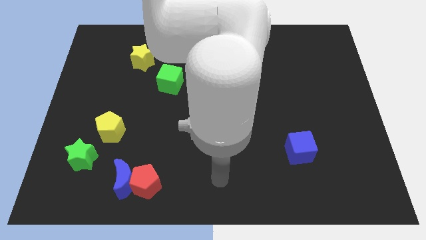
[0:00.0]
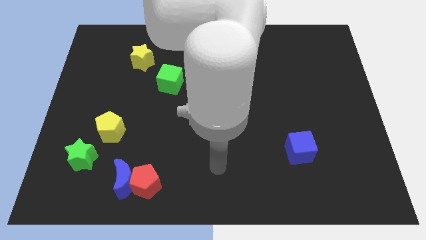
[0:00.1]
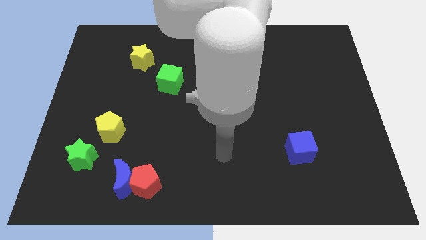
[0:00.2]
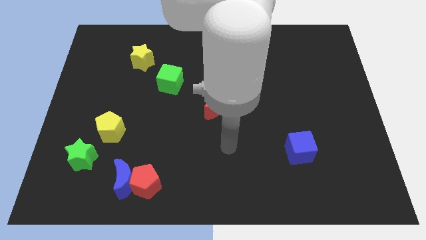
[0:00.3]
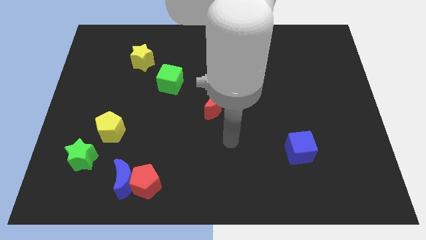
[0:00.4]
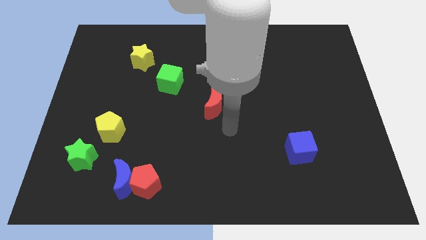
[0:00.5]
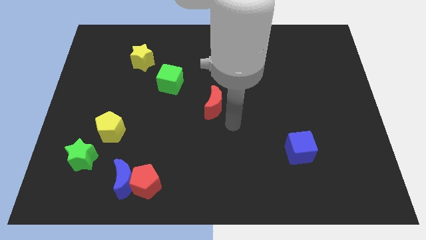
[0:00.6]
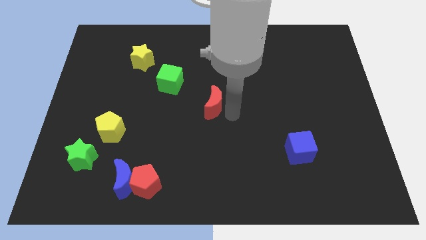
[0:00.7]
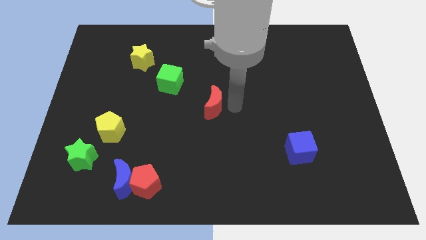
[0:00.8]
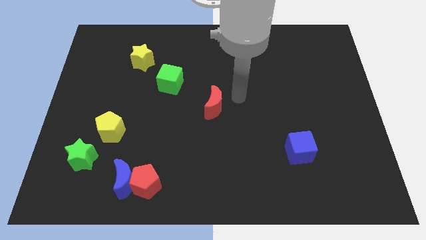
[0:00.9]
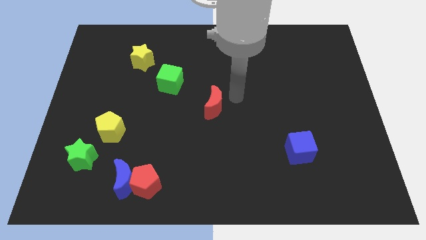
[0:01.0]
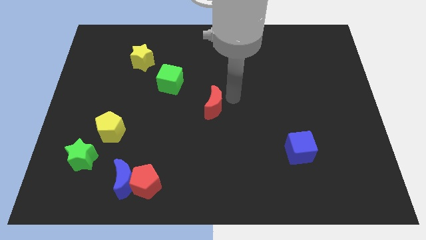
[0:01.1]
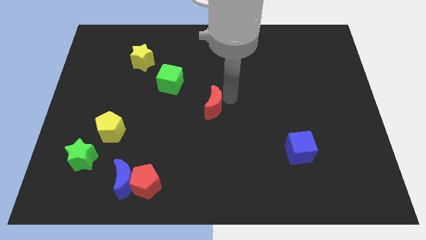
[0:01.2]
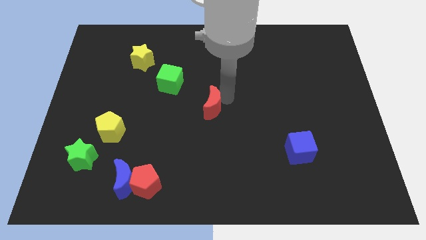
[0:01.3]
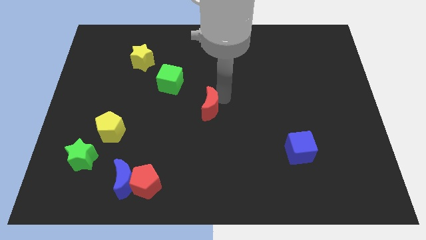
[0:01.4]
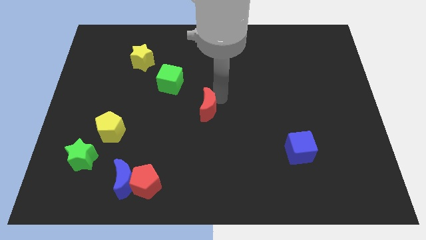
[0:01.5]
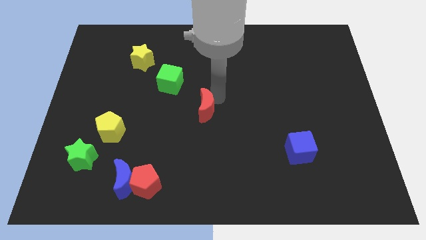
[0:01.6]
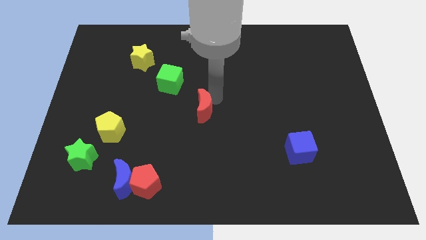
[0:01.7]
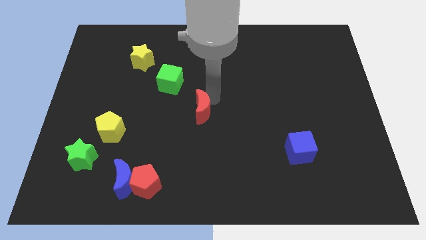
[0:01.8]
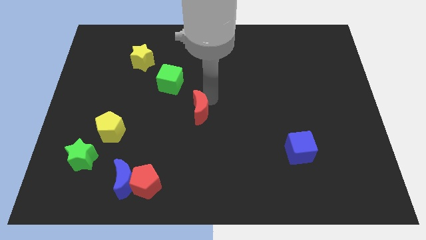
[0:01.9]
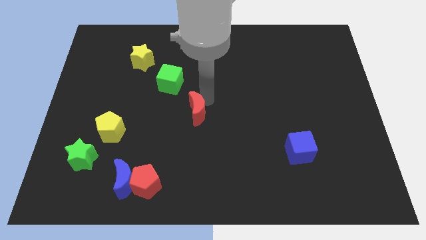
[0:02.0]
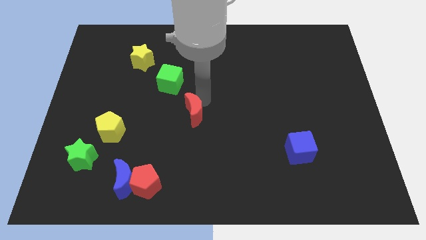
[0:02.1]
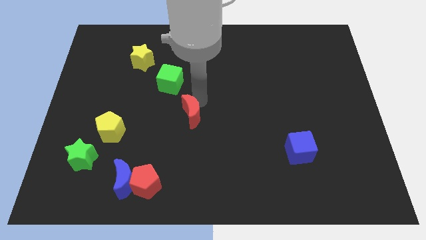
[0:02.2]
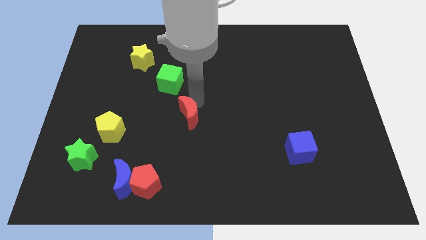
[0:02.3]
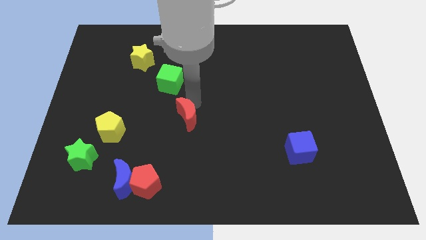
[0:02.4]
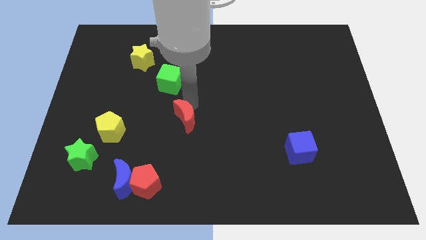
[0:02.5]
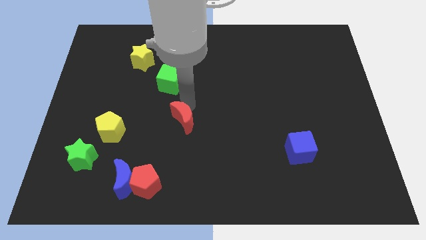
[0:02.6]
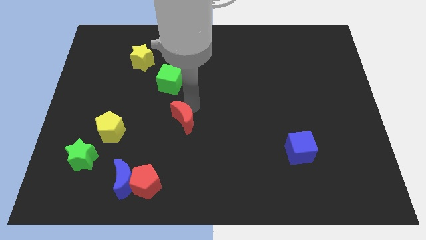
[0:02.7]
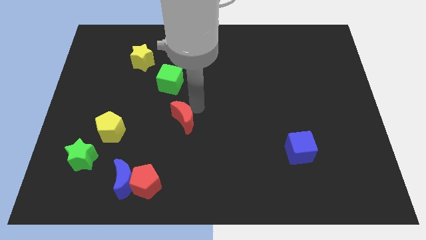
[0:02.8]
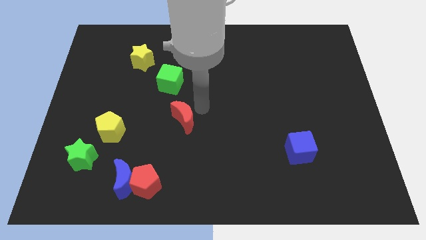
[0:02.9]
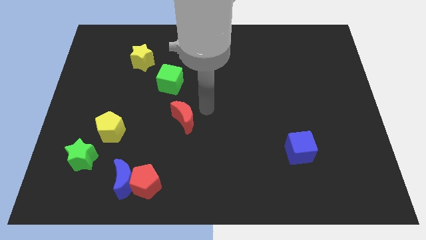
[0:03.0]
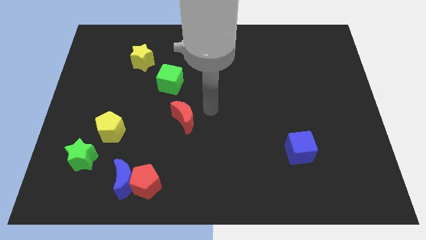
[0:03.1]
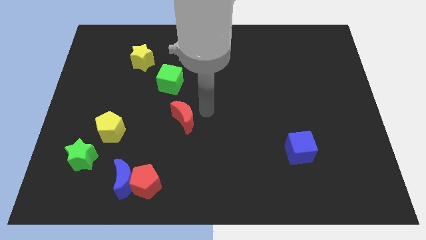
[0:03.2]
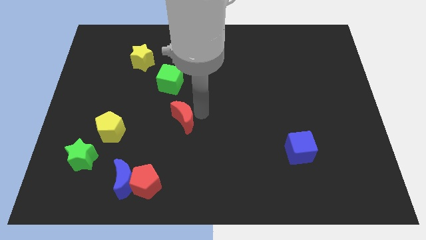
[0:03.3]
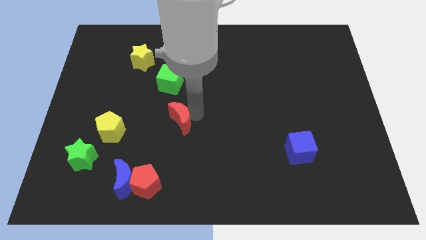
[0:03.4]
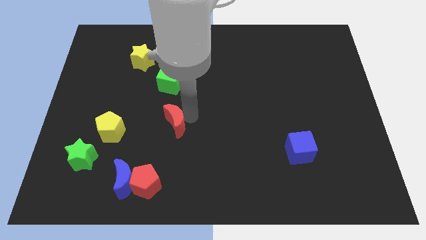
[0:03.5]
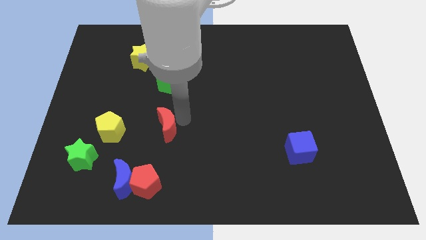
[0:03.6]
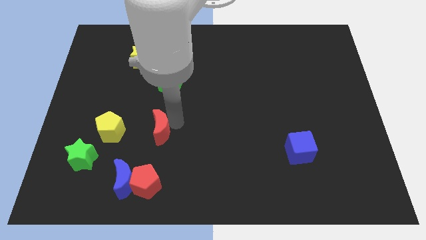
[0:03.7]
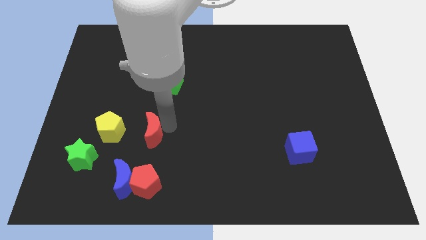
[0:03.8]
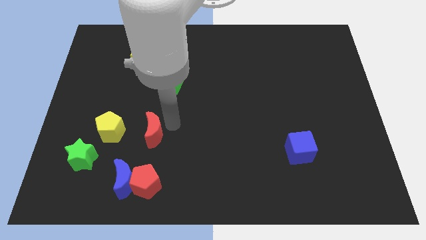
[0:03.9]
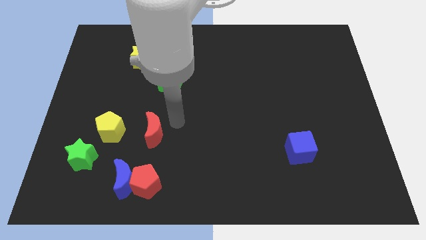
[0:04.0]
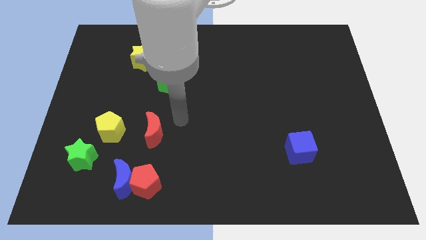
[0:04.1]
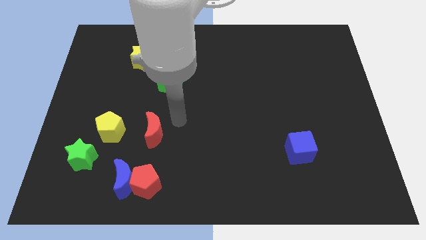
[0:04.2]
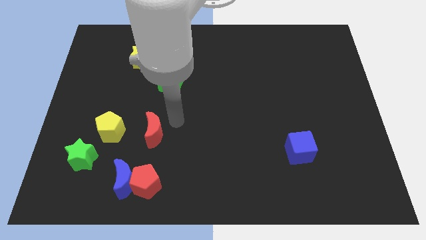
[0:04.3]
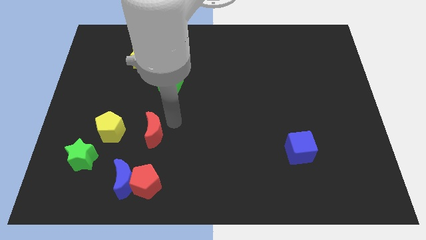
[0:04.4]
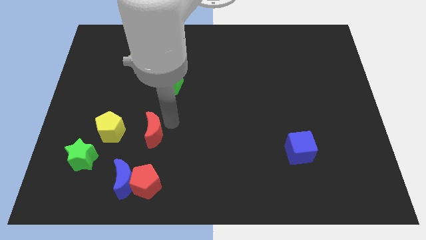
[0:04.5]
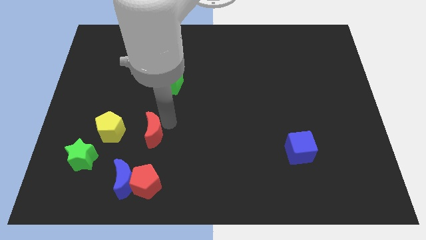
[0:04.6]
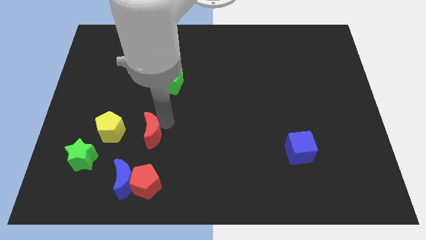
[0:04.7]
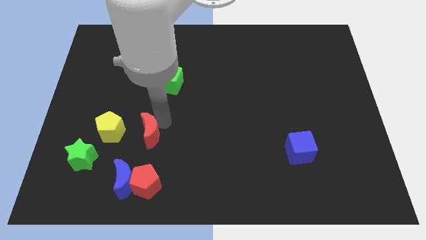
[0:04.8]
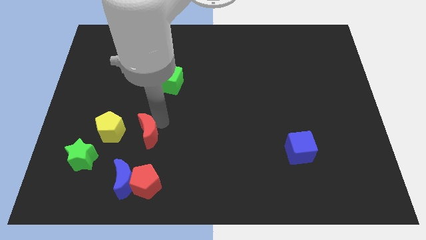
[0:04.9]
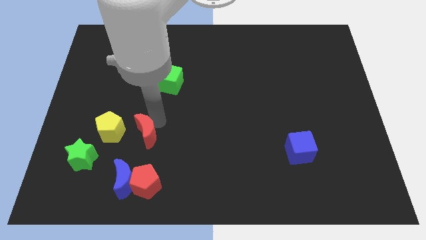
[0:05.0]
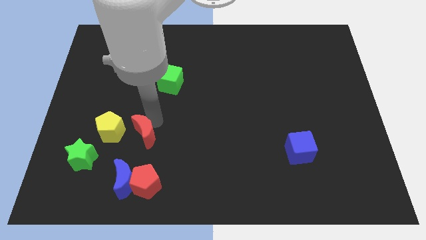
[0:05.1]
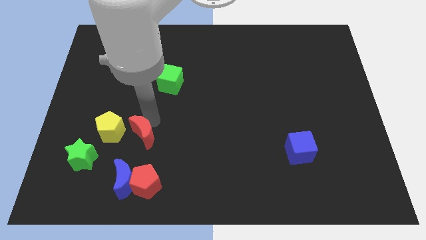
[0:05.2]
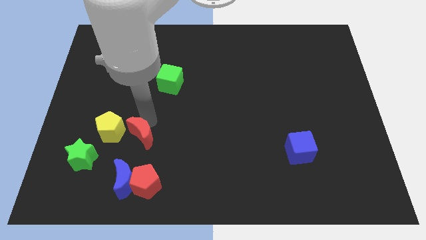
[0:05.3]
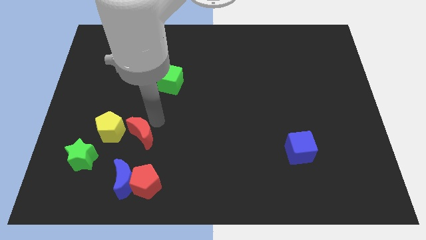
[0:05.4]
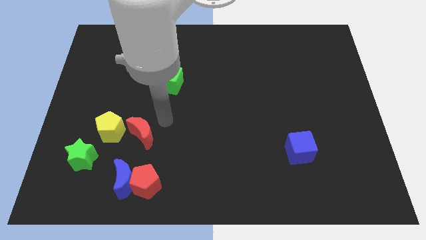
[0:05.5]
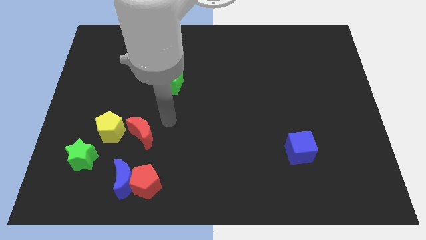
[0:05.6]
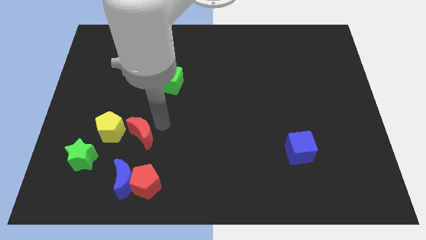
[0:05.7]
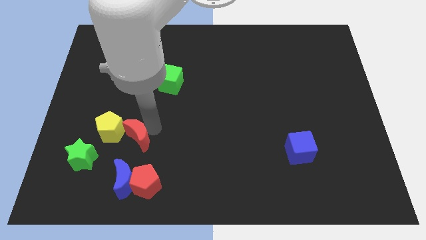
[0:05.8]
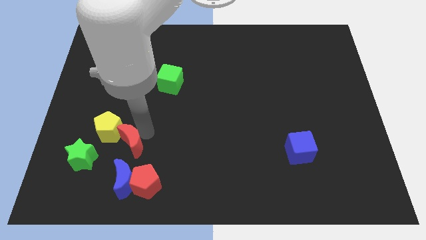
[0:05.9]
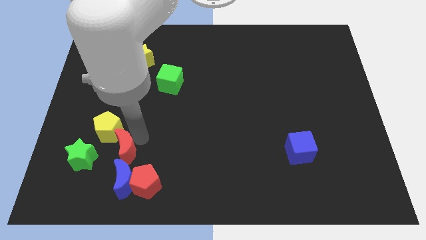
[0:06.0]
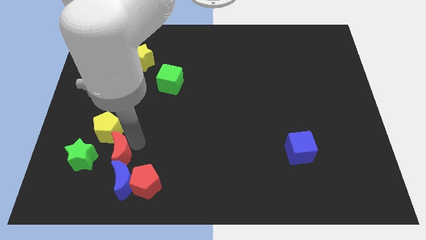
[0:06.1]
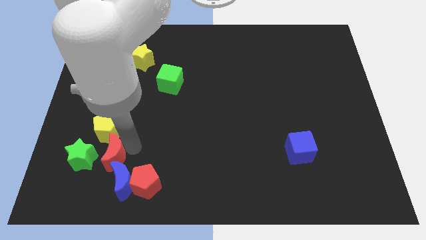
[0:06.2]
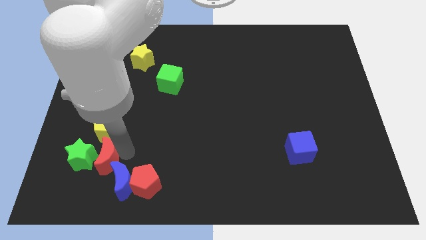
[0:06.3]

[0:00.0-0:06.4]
put the red moon next to the green star

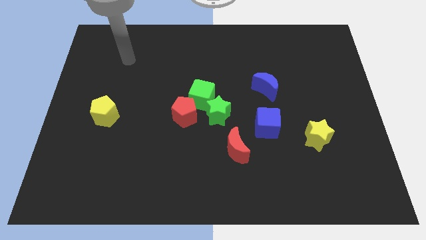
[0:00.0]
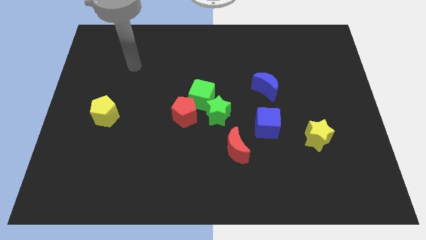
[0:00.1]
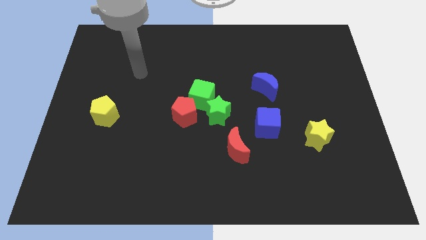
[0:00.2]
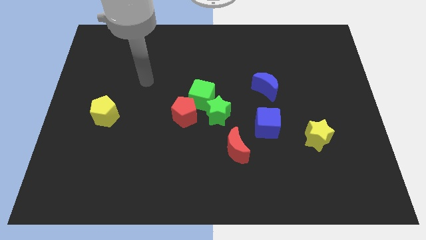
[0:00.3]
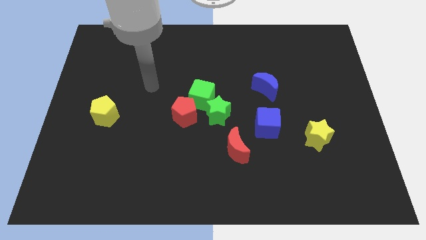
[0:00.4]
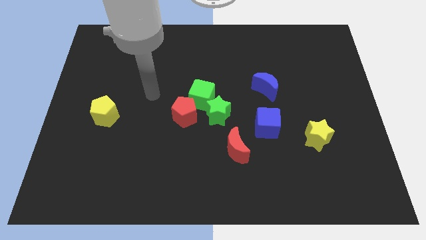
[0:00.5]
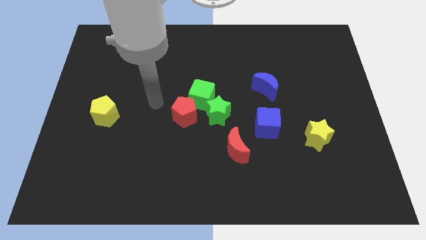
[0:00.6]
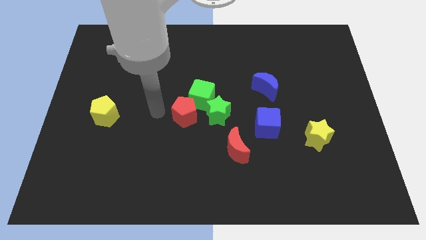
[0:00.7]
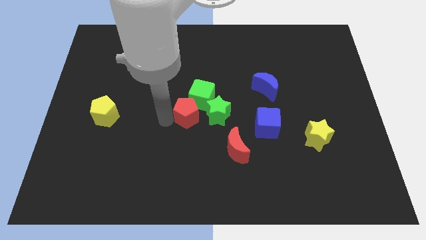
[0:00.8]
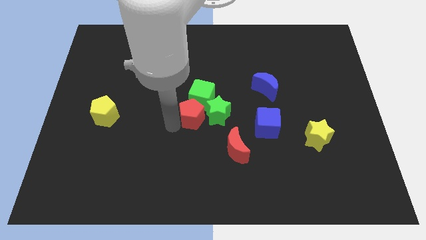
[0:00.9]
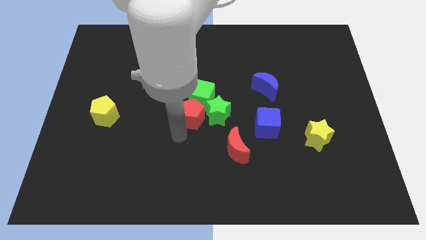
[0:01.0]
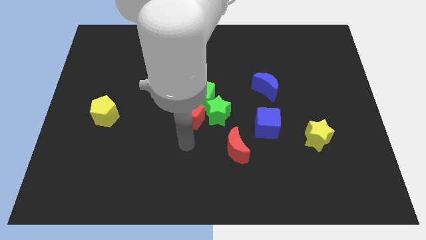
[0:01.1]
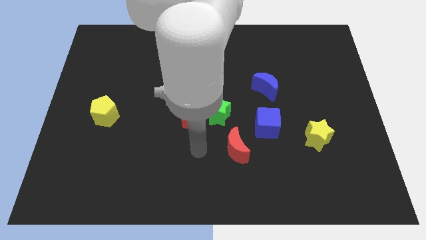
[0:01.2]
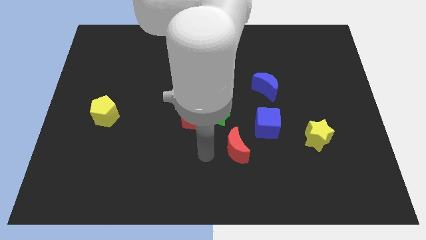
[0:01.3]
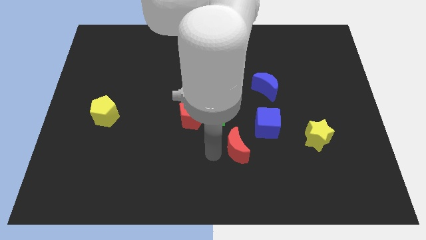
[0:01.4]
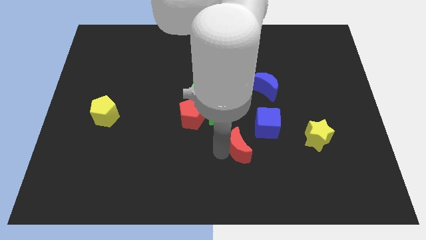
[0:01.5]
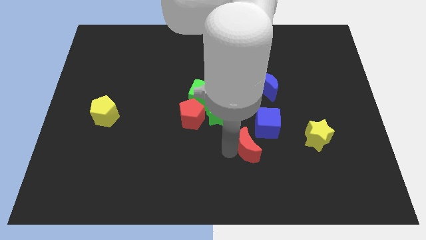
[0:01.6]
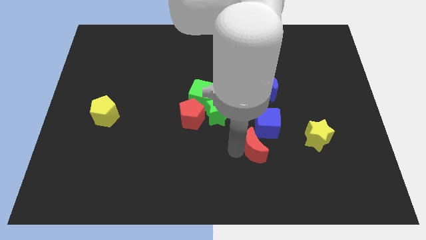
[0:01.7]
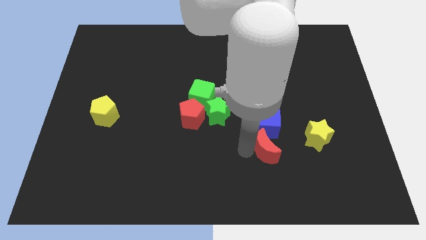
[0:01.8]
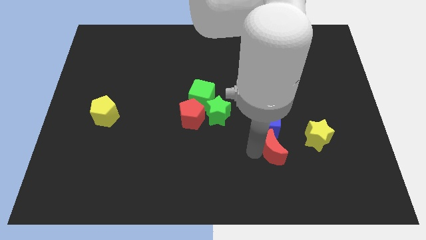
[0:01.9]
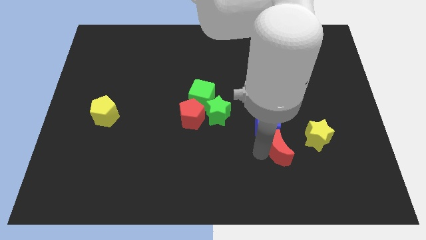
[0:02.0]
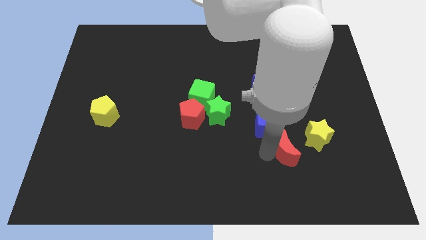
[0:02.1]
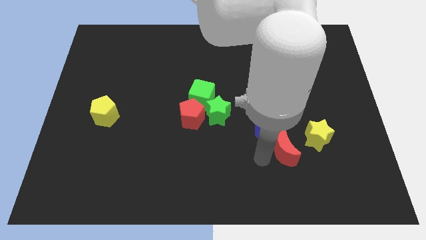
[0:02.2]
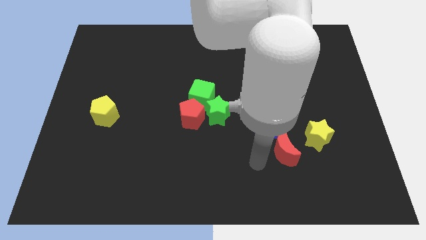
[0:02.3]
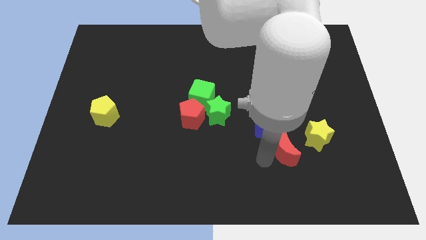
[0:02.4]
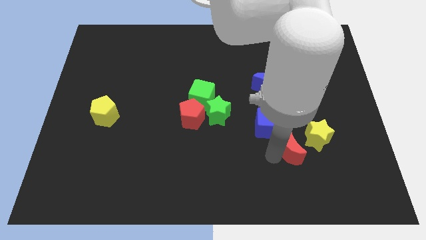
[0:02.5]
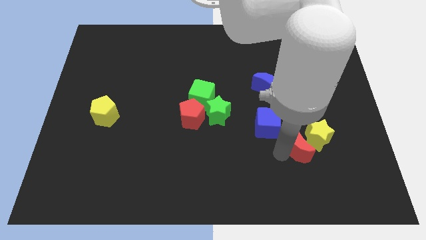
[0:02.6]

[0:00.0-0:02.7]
slide the red moon towards the yellow star
